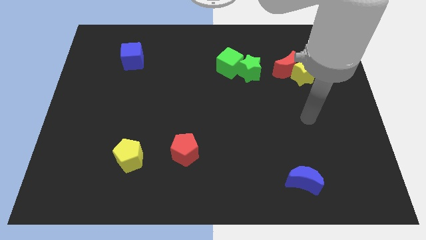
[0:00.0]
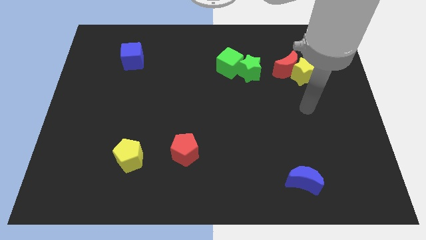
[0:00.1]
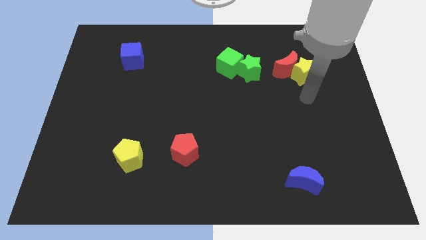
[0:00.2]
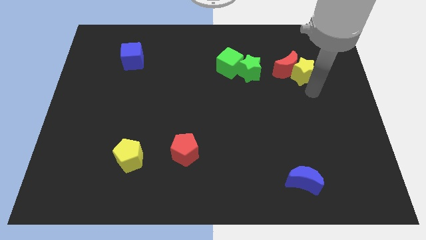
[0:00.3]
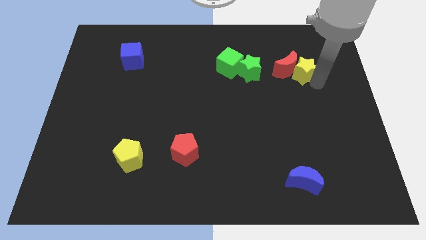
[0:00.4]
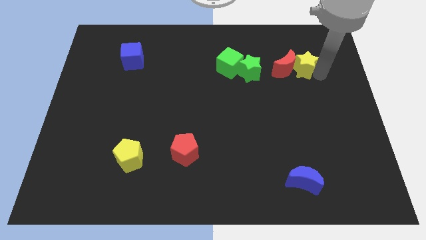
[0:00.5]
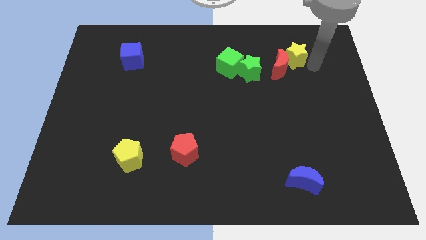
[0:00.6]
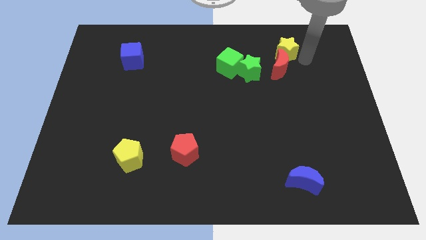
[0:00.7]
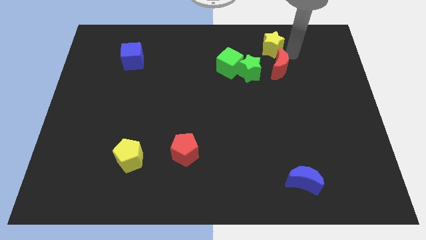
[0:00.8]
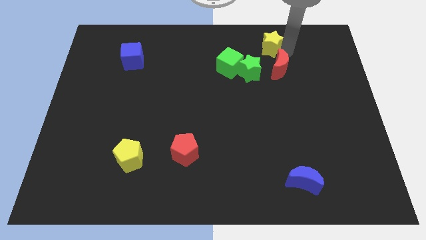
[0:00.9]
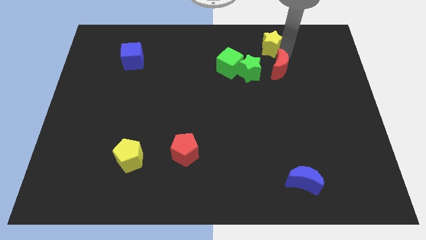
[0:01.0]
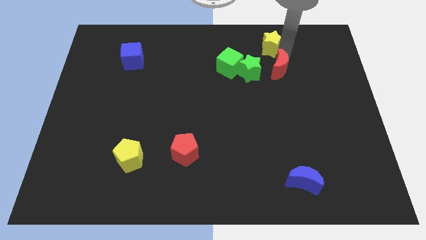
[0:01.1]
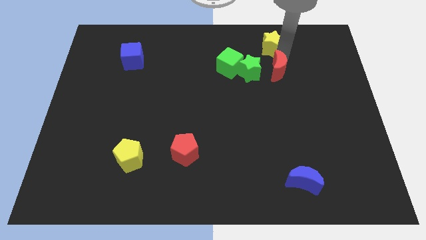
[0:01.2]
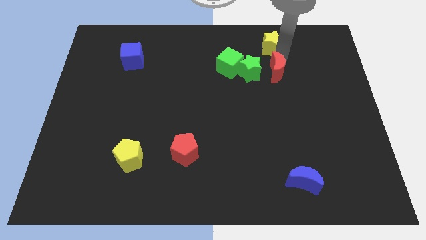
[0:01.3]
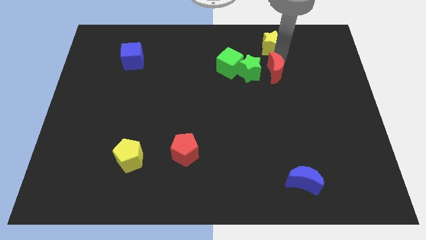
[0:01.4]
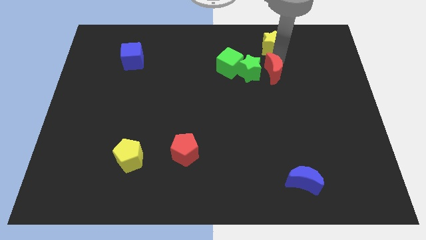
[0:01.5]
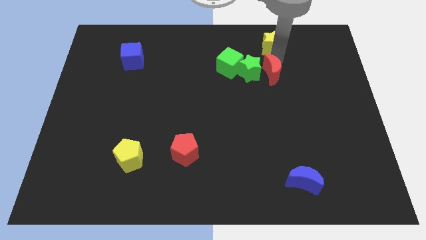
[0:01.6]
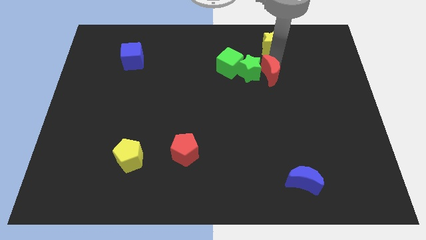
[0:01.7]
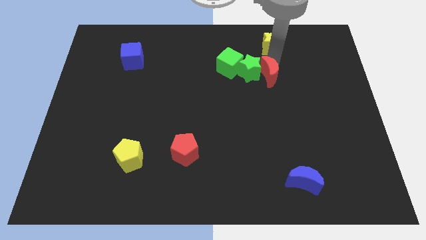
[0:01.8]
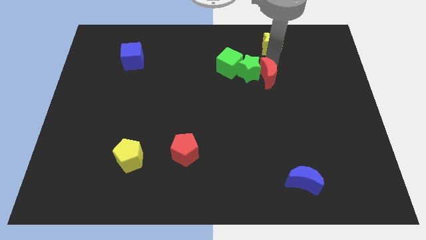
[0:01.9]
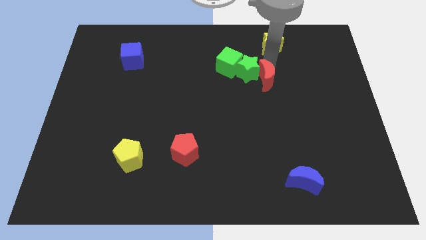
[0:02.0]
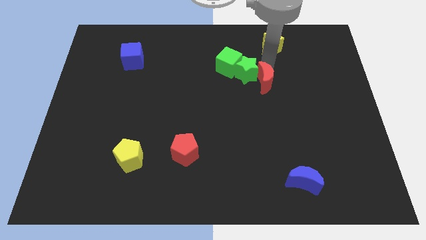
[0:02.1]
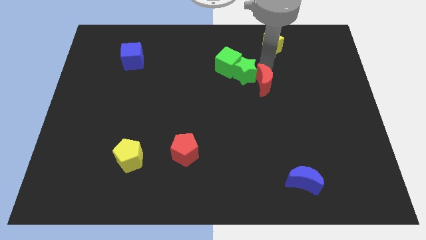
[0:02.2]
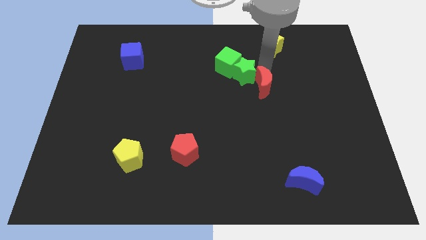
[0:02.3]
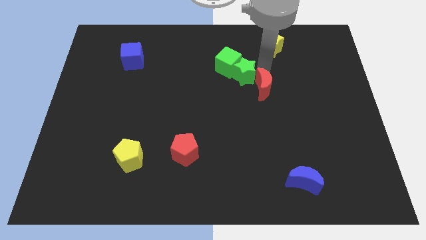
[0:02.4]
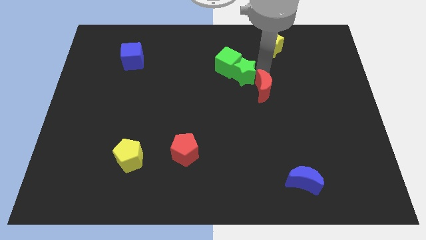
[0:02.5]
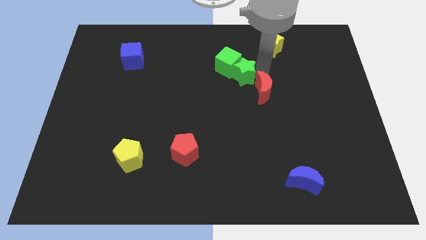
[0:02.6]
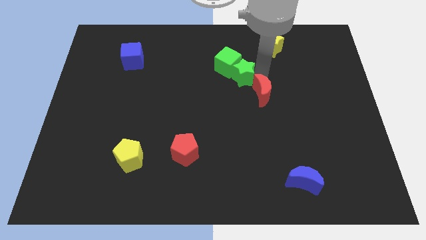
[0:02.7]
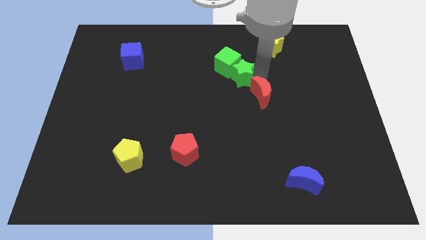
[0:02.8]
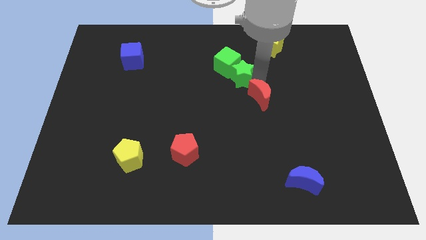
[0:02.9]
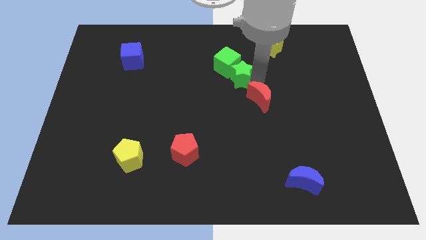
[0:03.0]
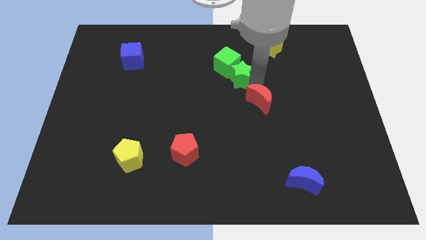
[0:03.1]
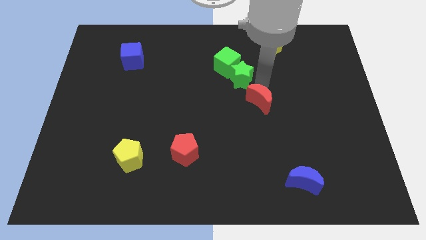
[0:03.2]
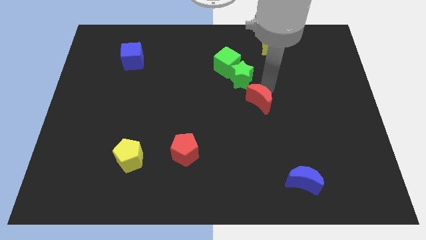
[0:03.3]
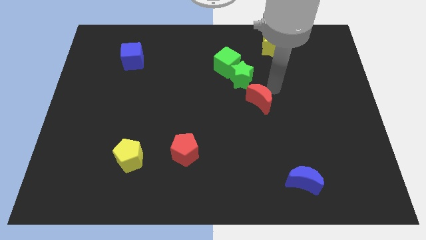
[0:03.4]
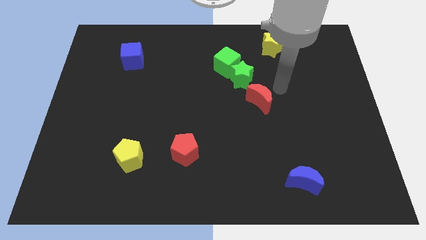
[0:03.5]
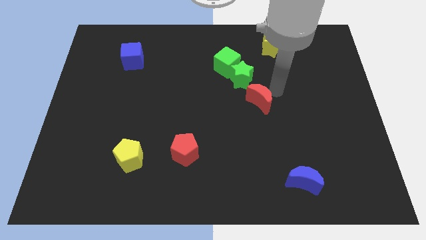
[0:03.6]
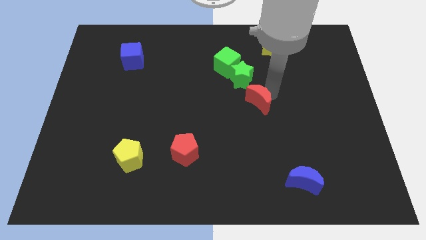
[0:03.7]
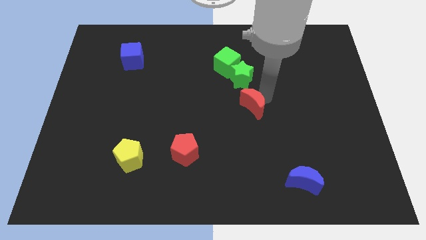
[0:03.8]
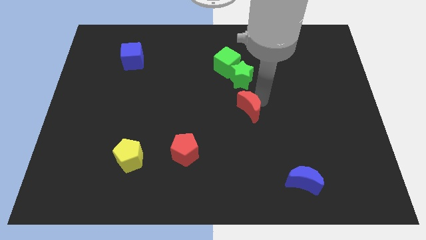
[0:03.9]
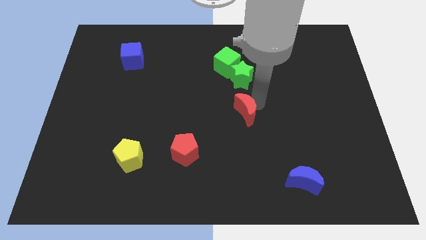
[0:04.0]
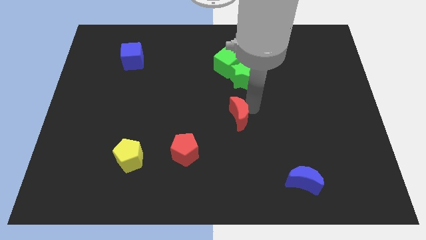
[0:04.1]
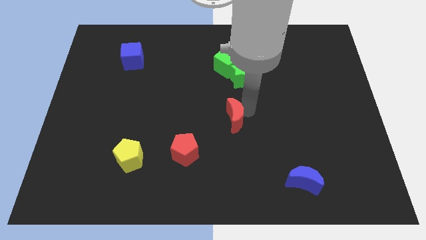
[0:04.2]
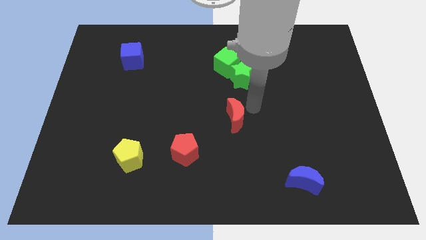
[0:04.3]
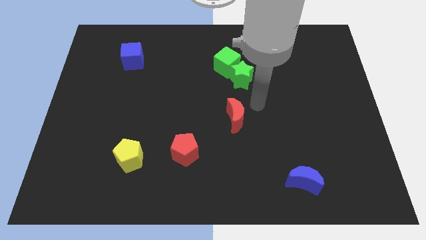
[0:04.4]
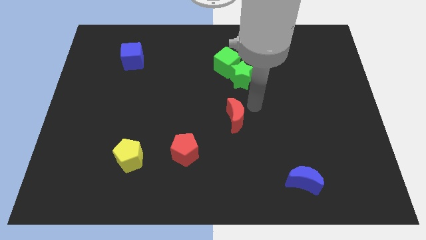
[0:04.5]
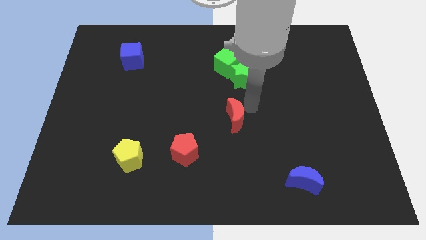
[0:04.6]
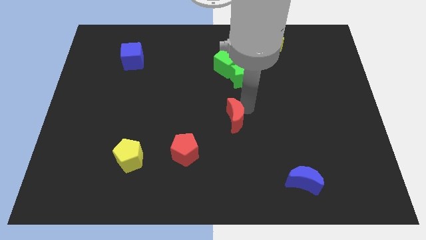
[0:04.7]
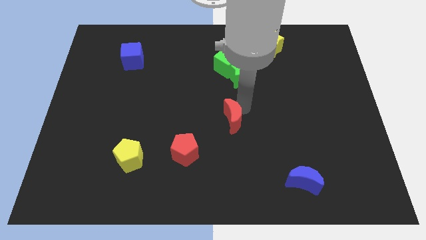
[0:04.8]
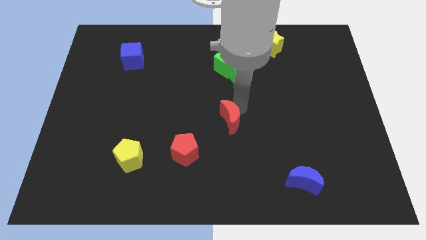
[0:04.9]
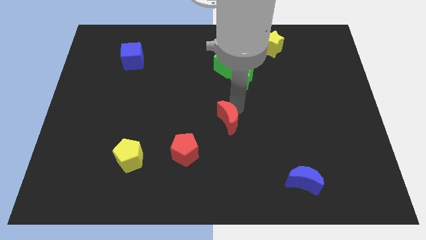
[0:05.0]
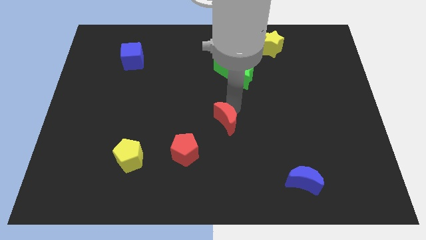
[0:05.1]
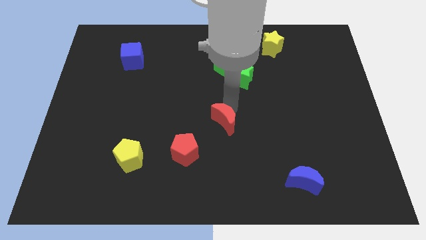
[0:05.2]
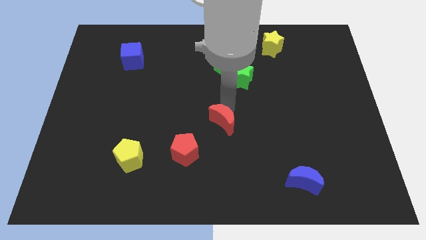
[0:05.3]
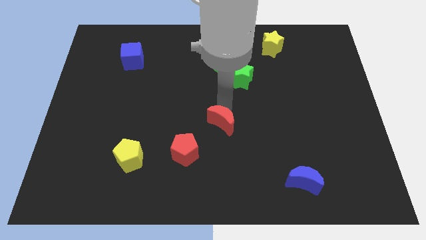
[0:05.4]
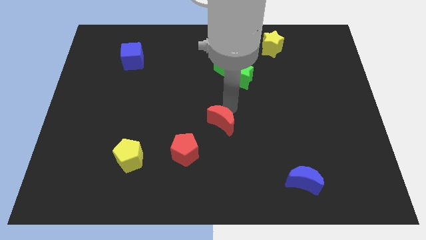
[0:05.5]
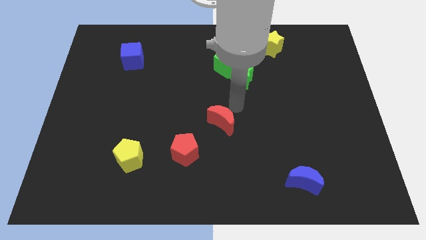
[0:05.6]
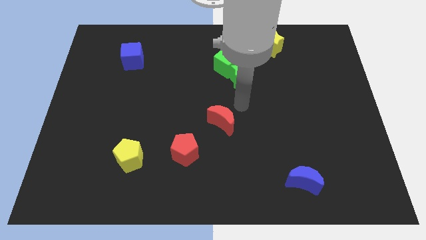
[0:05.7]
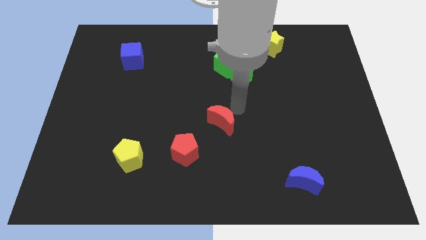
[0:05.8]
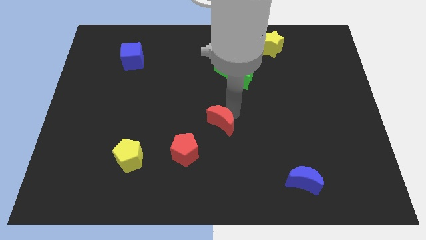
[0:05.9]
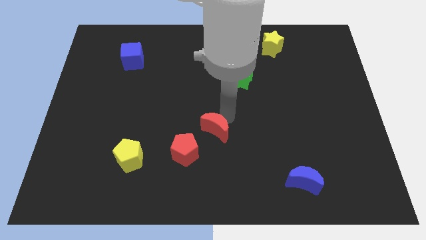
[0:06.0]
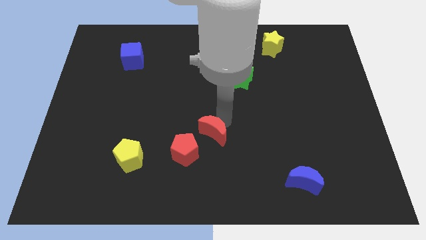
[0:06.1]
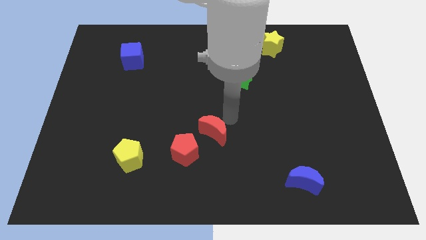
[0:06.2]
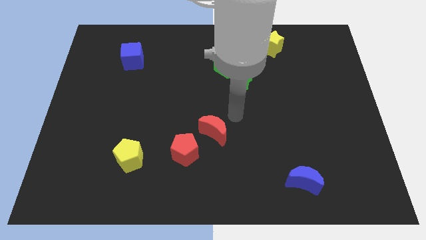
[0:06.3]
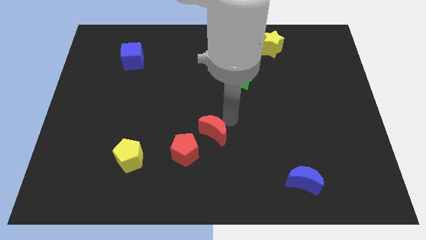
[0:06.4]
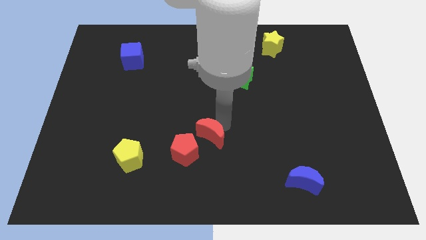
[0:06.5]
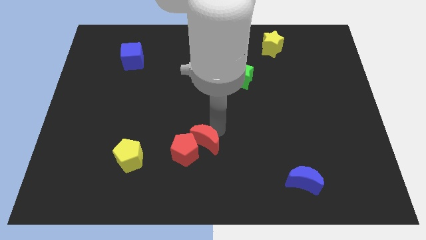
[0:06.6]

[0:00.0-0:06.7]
push the red moon towards the red pentagon

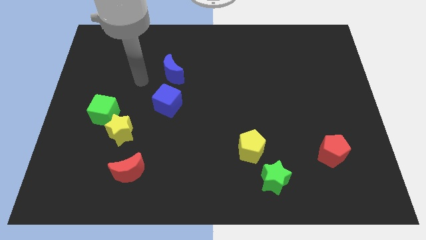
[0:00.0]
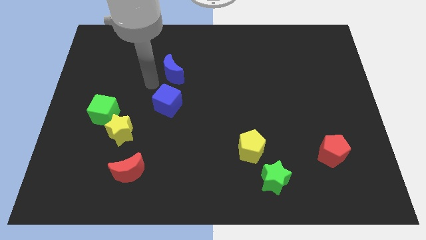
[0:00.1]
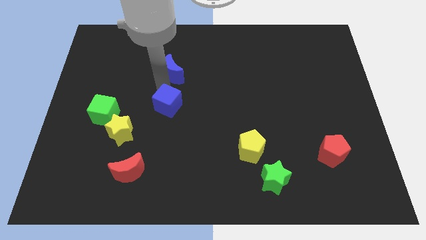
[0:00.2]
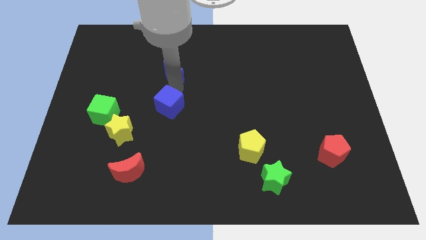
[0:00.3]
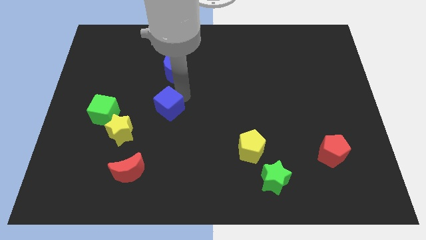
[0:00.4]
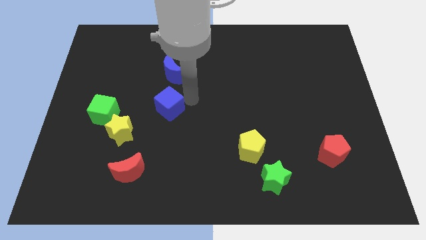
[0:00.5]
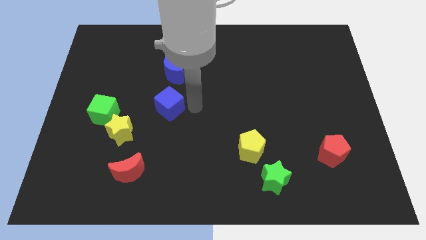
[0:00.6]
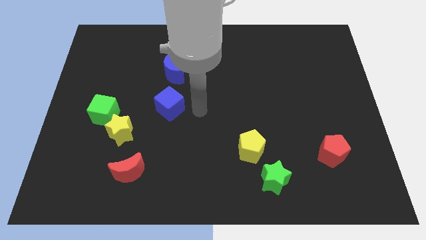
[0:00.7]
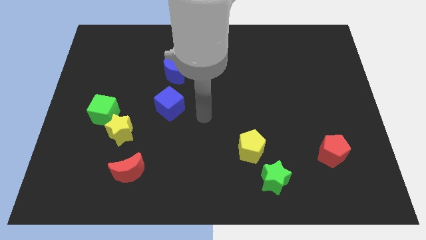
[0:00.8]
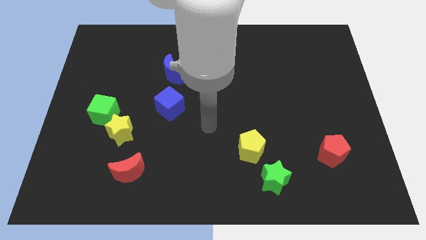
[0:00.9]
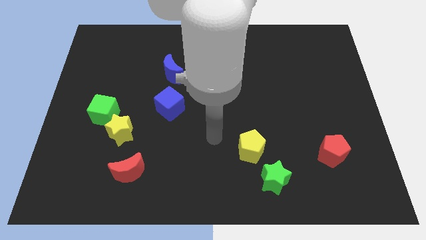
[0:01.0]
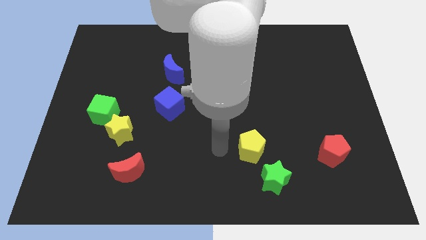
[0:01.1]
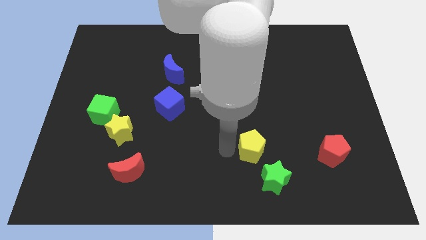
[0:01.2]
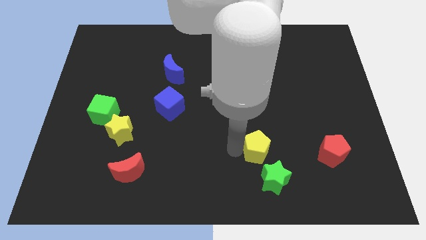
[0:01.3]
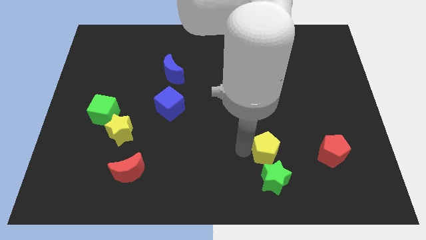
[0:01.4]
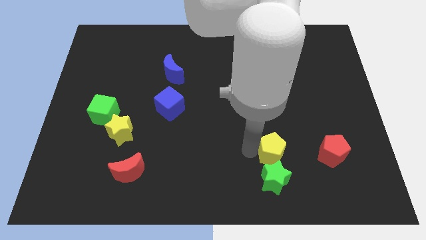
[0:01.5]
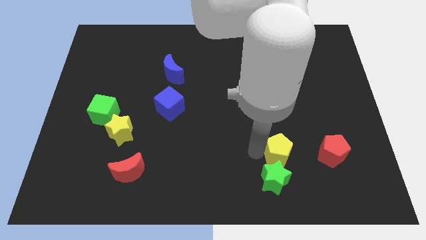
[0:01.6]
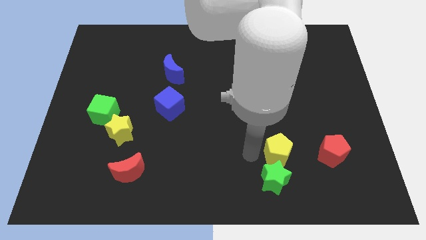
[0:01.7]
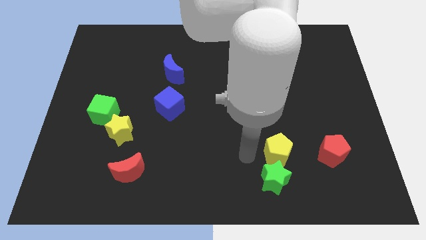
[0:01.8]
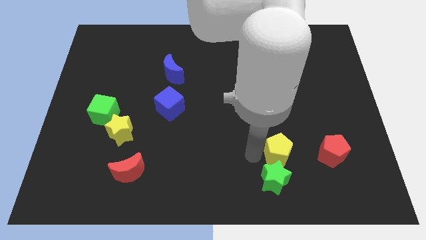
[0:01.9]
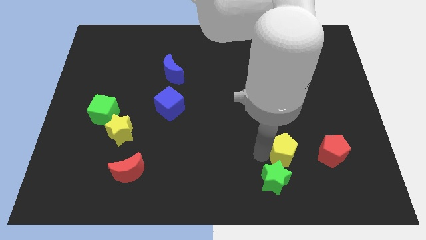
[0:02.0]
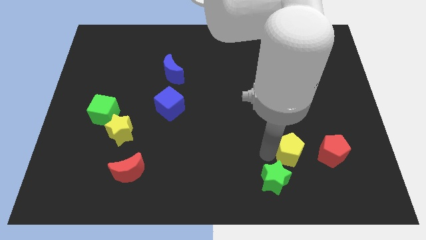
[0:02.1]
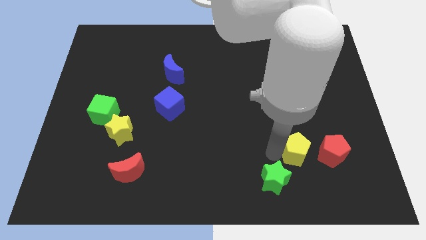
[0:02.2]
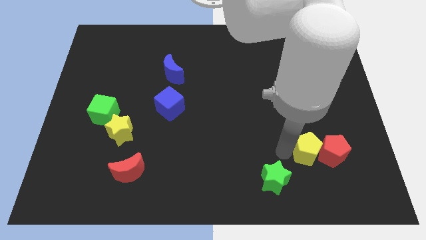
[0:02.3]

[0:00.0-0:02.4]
move the yellow pentagon close to the red pentagon
